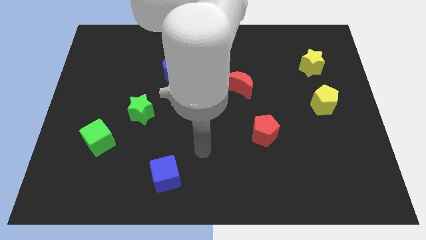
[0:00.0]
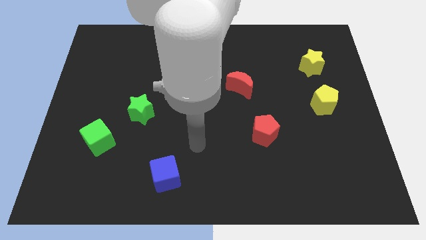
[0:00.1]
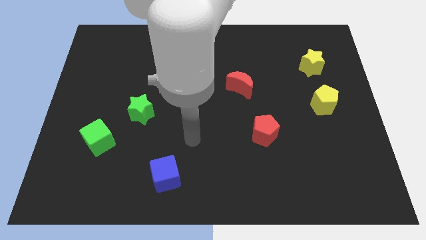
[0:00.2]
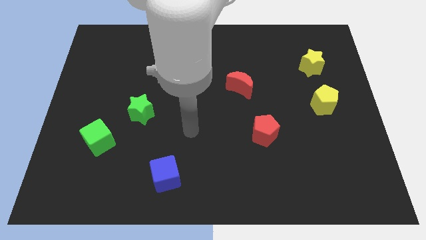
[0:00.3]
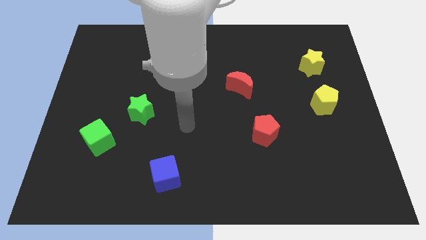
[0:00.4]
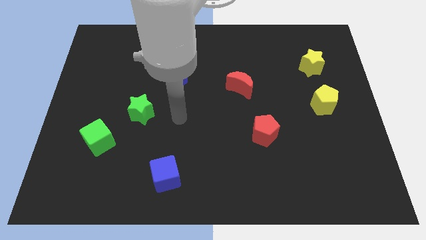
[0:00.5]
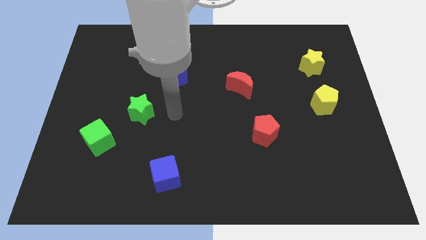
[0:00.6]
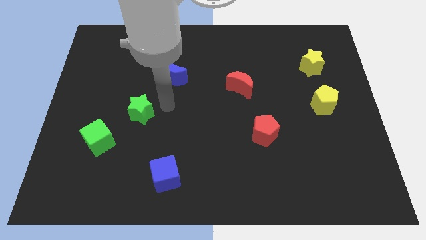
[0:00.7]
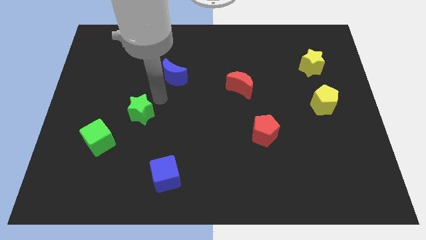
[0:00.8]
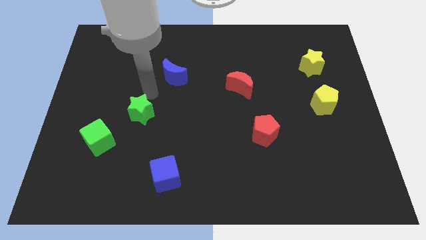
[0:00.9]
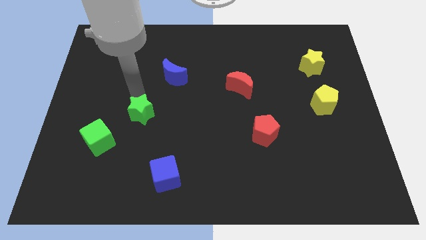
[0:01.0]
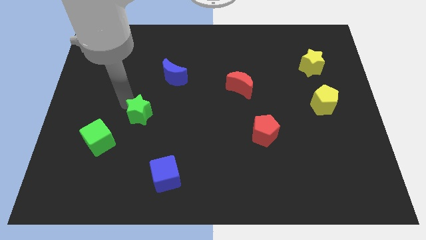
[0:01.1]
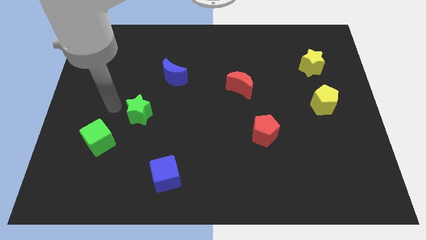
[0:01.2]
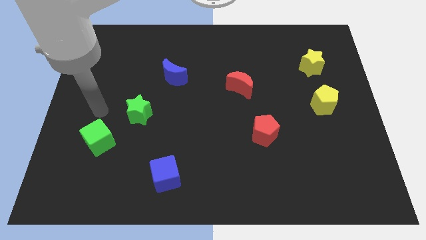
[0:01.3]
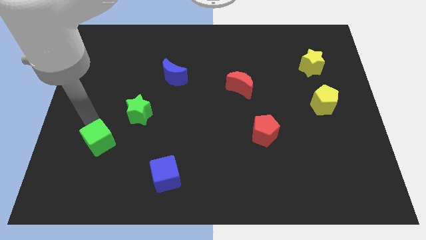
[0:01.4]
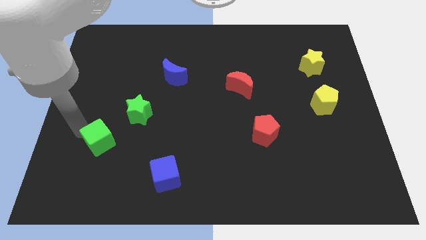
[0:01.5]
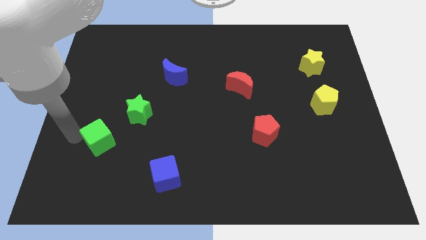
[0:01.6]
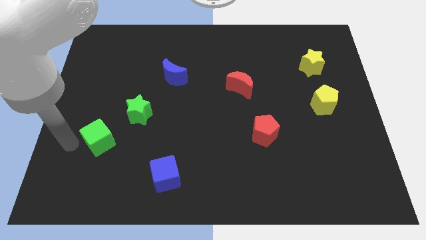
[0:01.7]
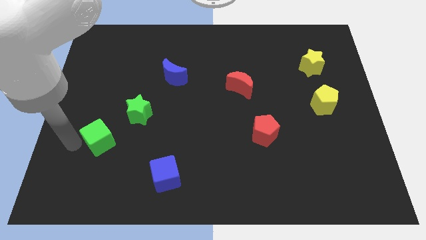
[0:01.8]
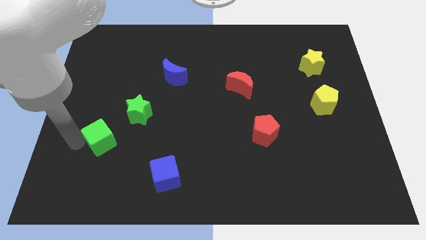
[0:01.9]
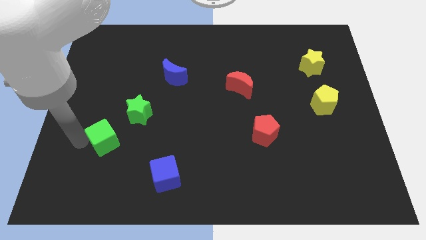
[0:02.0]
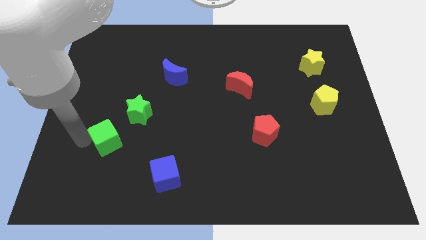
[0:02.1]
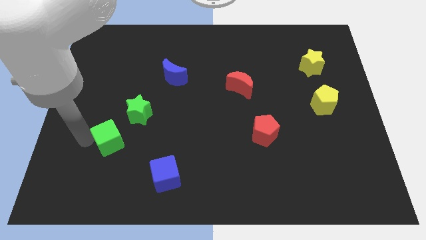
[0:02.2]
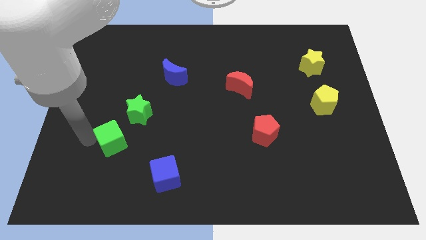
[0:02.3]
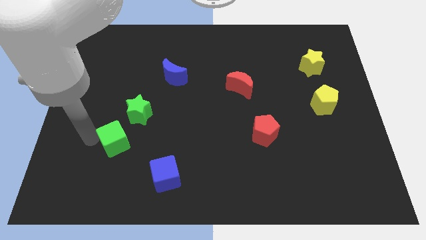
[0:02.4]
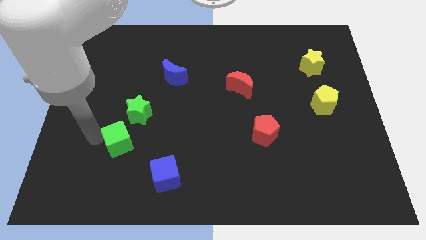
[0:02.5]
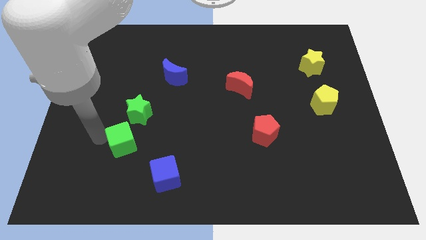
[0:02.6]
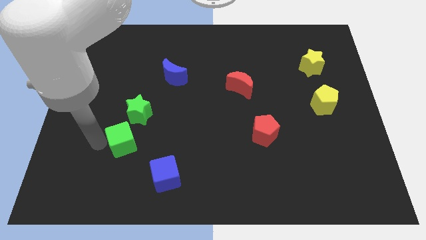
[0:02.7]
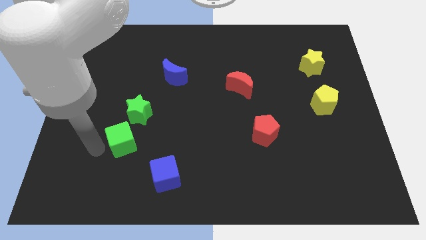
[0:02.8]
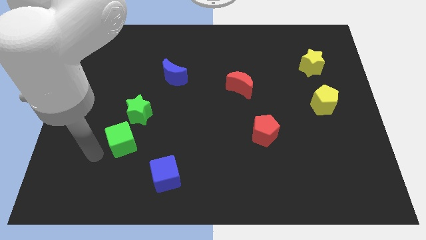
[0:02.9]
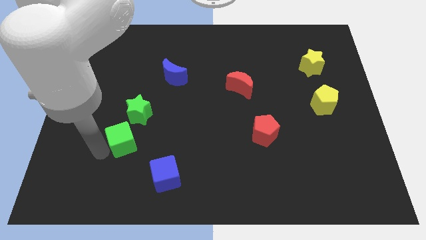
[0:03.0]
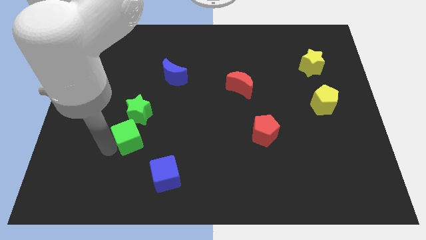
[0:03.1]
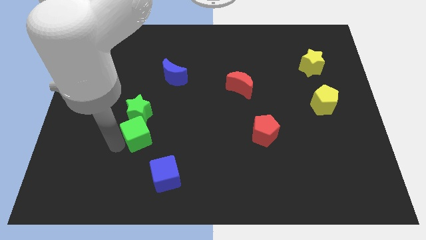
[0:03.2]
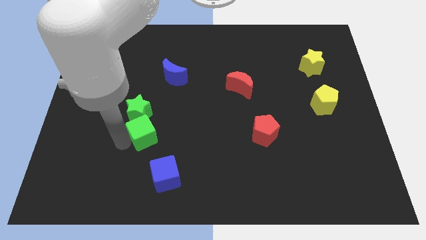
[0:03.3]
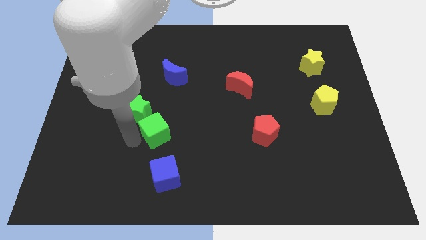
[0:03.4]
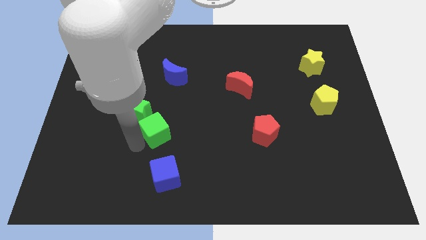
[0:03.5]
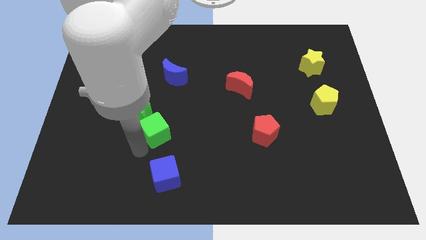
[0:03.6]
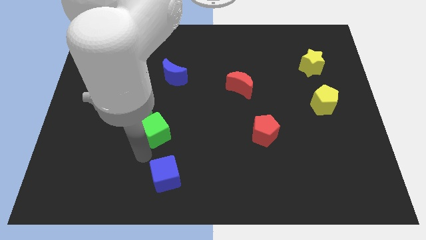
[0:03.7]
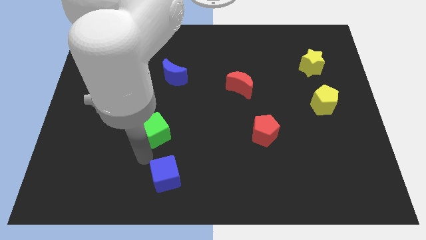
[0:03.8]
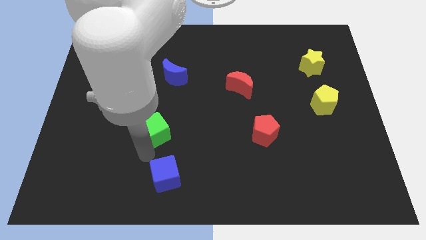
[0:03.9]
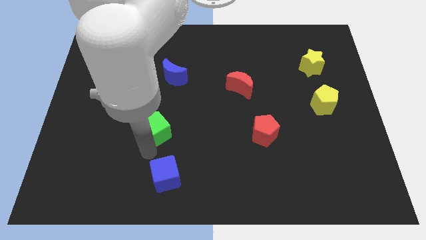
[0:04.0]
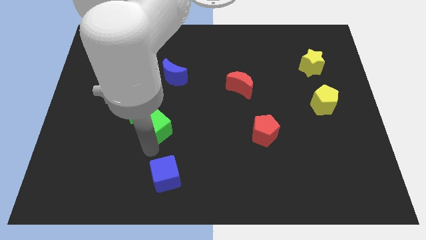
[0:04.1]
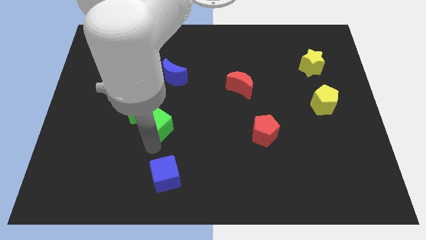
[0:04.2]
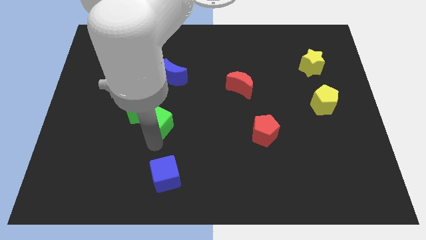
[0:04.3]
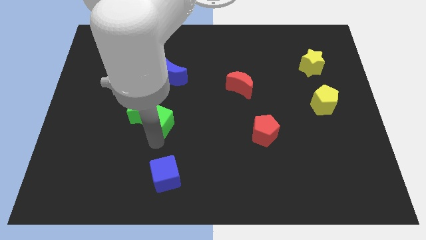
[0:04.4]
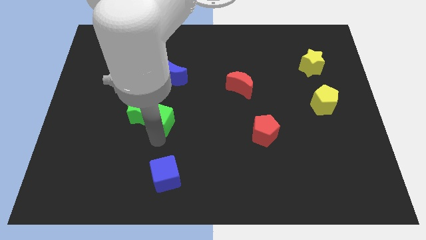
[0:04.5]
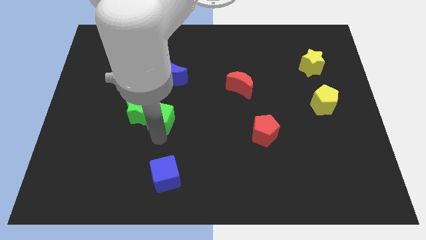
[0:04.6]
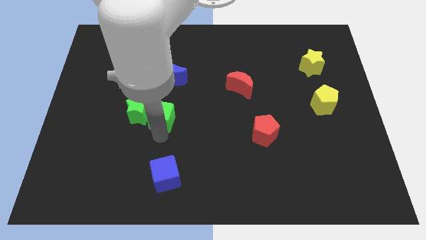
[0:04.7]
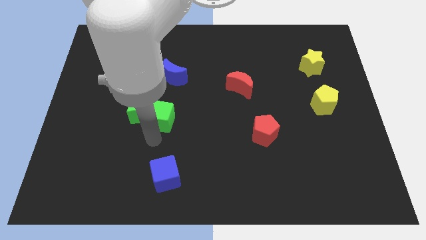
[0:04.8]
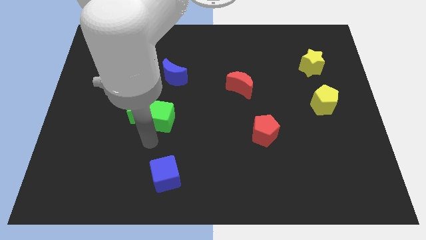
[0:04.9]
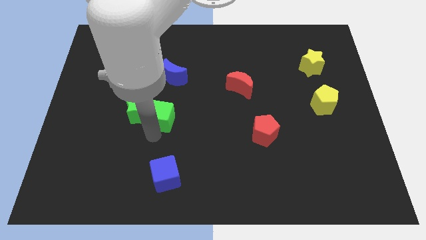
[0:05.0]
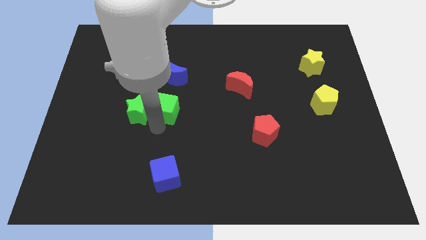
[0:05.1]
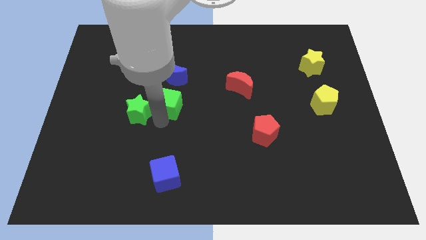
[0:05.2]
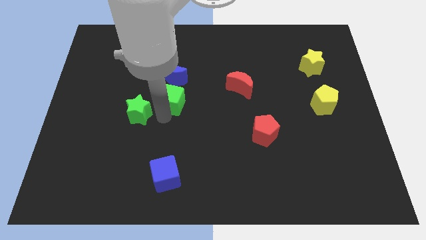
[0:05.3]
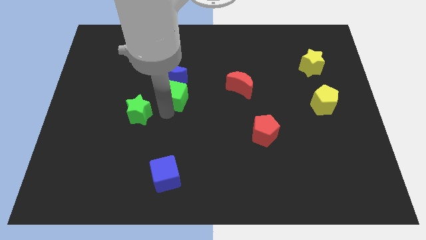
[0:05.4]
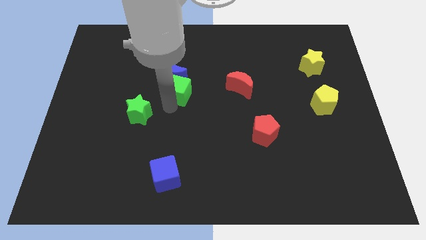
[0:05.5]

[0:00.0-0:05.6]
push the green cube up and right

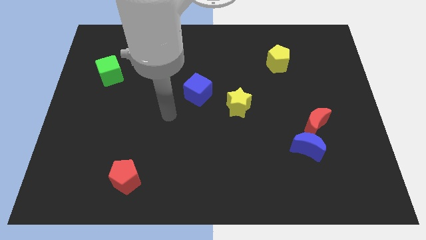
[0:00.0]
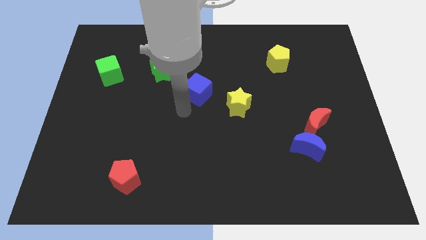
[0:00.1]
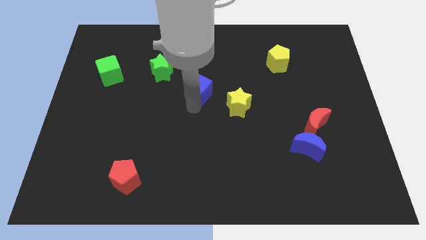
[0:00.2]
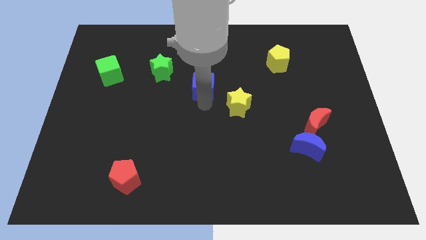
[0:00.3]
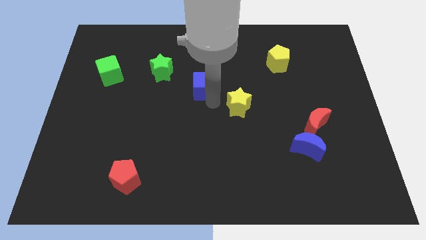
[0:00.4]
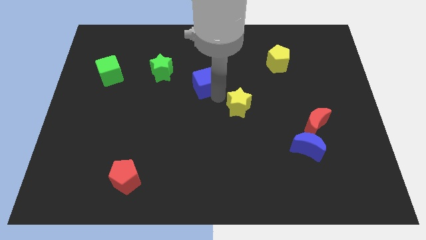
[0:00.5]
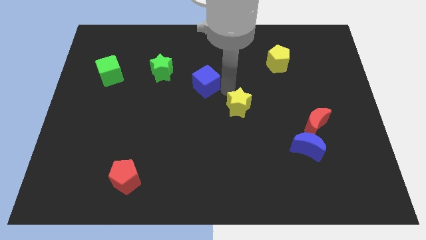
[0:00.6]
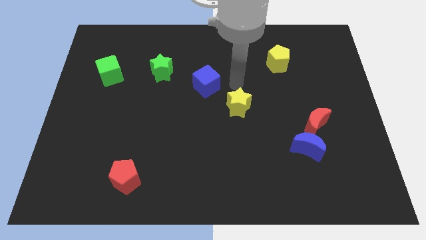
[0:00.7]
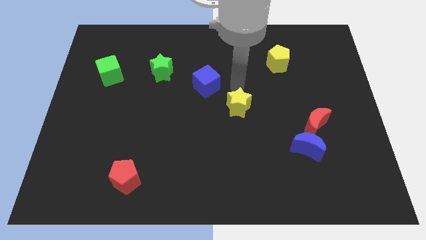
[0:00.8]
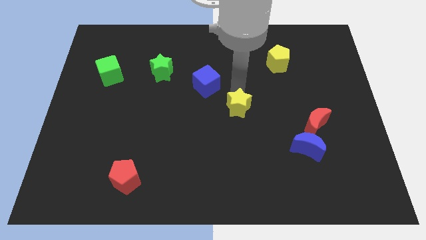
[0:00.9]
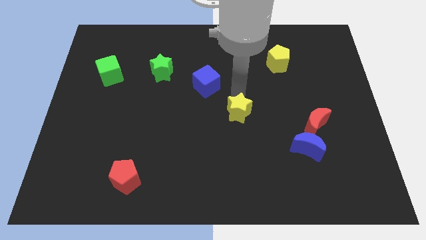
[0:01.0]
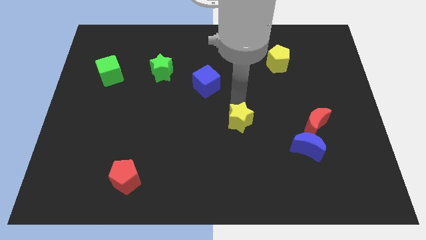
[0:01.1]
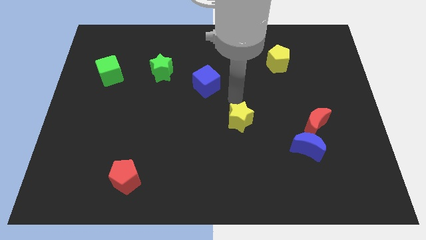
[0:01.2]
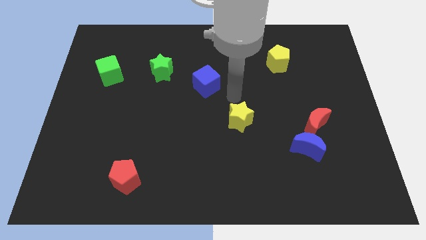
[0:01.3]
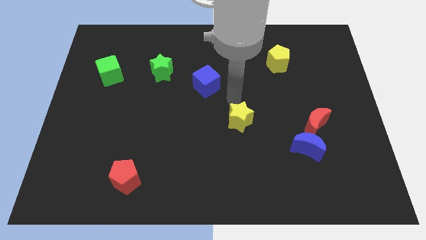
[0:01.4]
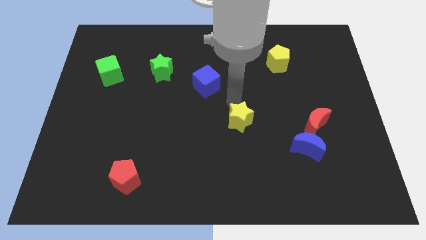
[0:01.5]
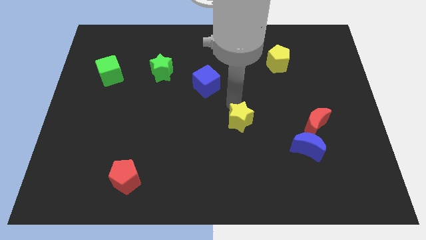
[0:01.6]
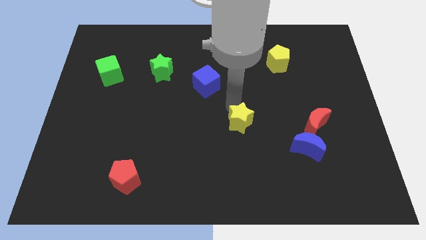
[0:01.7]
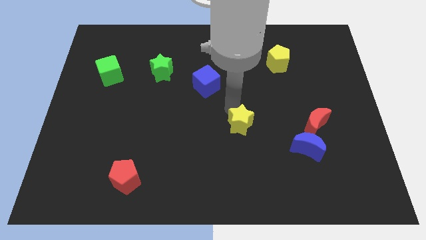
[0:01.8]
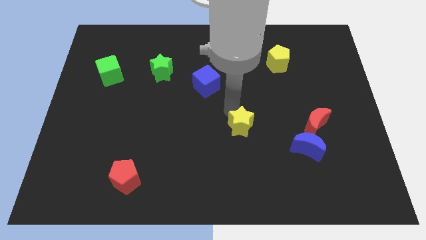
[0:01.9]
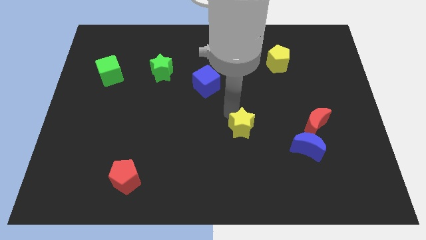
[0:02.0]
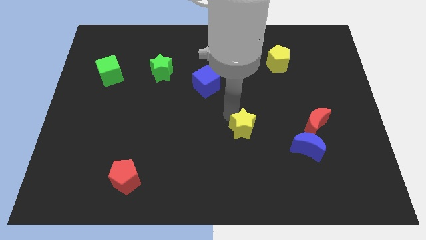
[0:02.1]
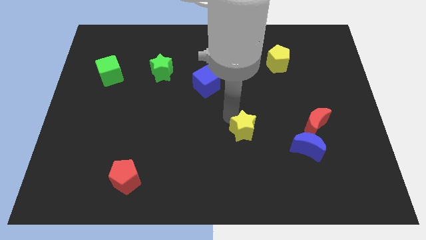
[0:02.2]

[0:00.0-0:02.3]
push the yellow star slightly downwards

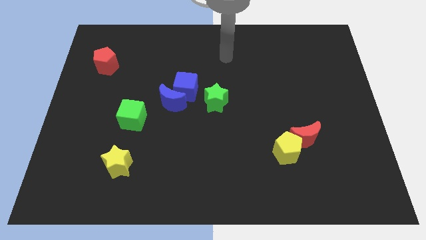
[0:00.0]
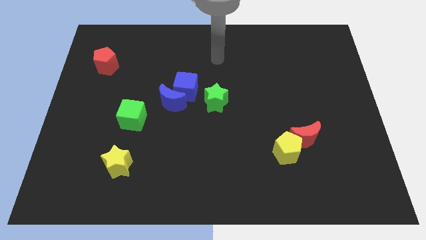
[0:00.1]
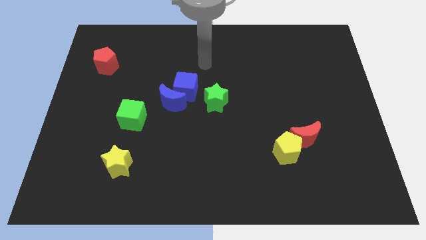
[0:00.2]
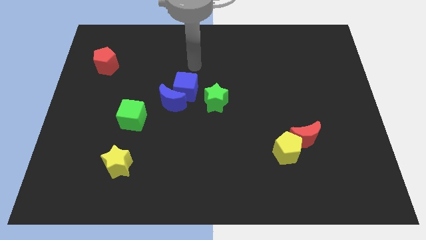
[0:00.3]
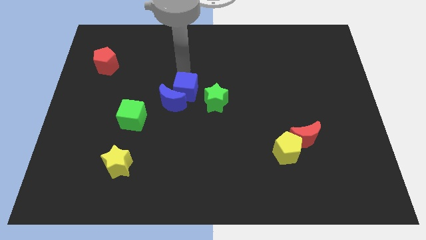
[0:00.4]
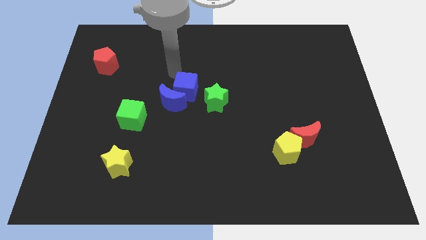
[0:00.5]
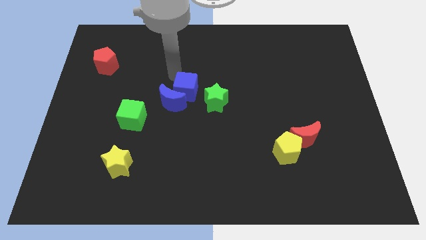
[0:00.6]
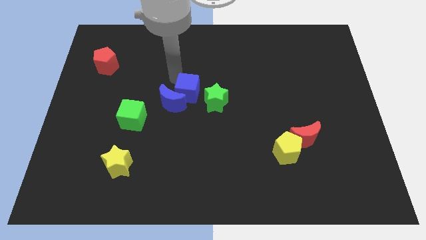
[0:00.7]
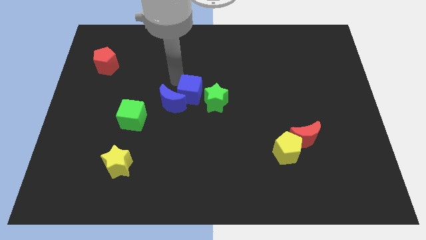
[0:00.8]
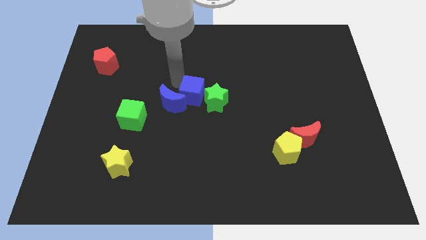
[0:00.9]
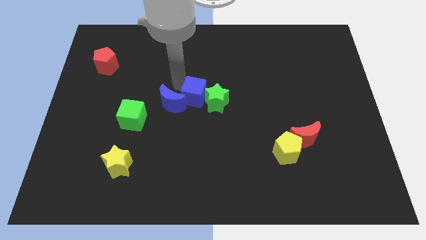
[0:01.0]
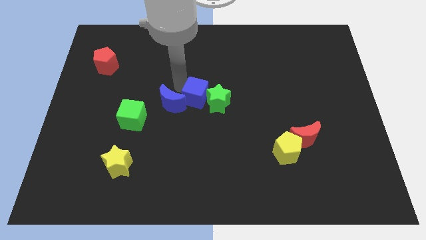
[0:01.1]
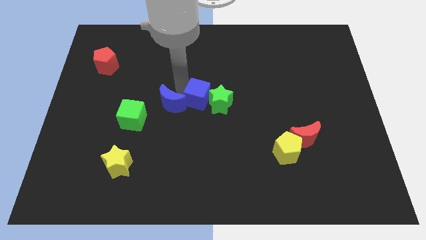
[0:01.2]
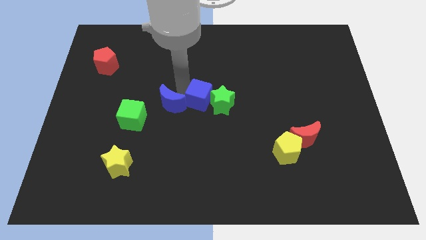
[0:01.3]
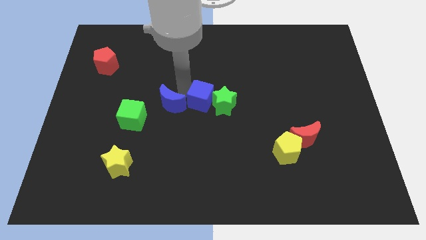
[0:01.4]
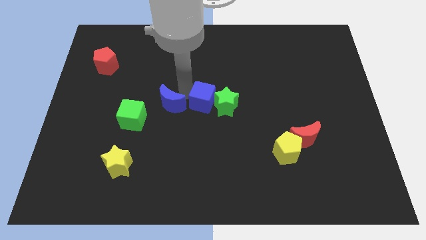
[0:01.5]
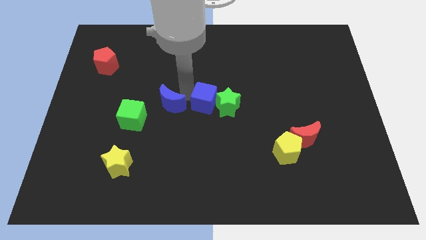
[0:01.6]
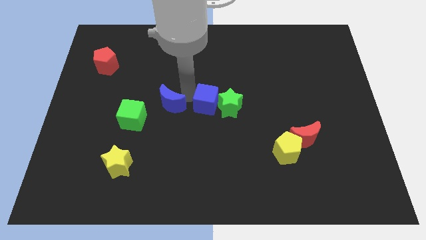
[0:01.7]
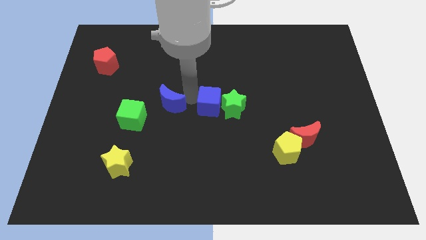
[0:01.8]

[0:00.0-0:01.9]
slightly push the blue cube down and to the right
